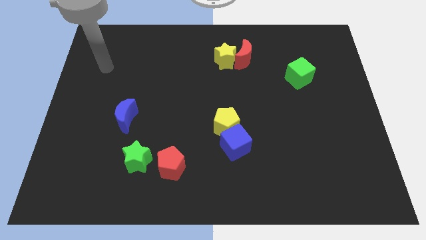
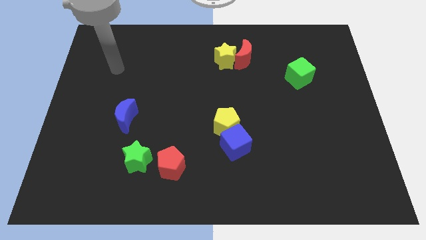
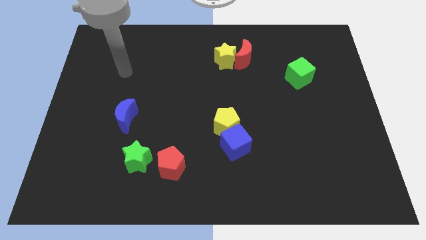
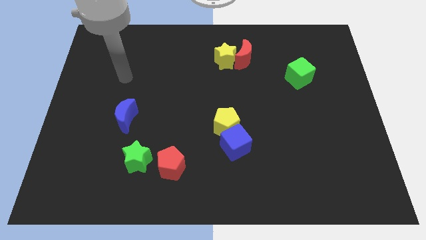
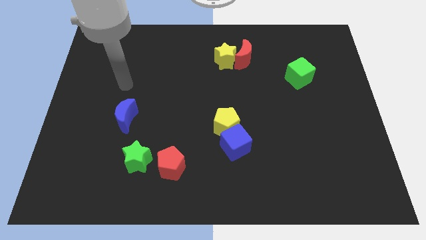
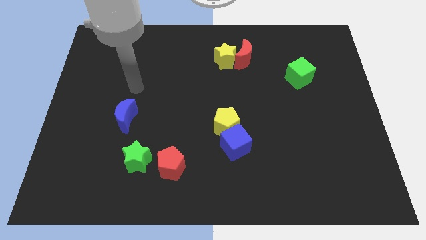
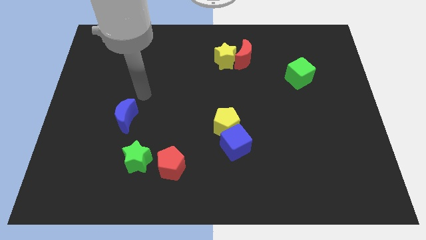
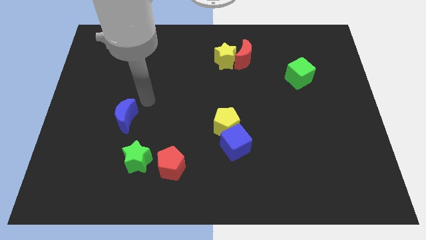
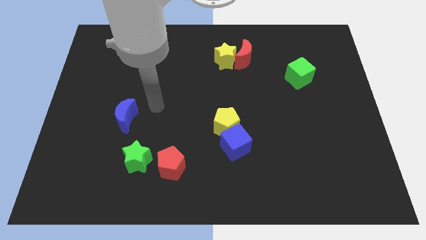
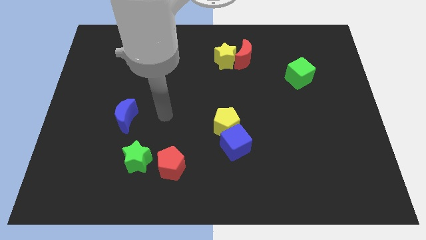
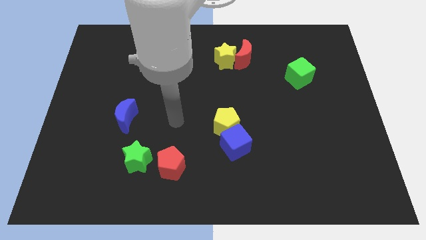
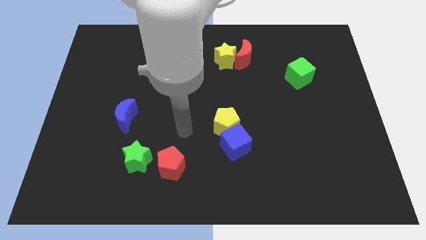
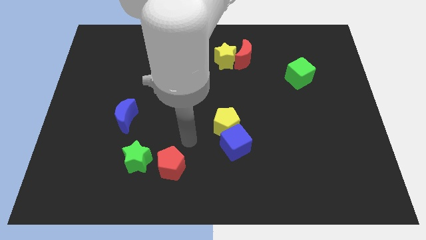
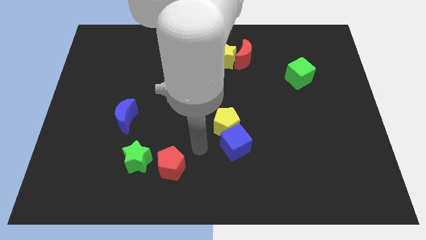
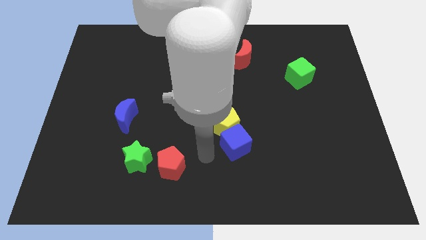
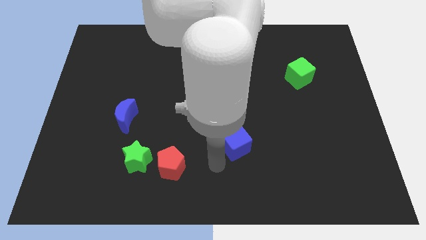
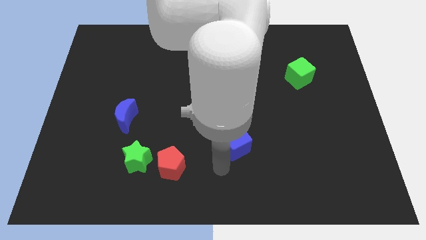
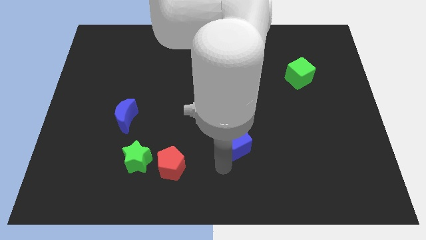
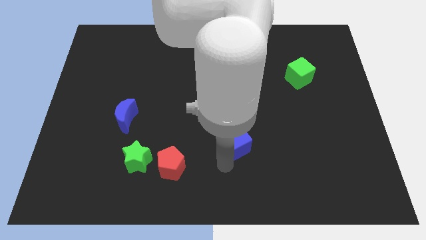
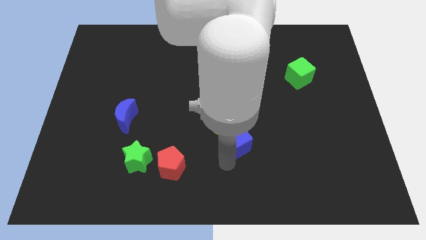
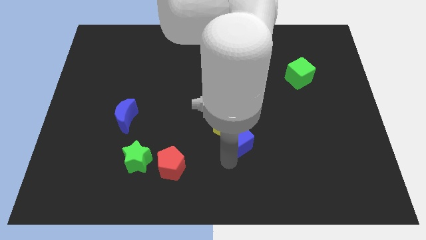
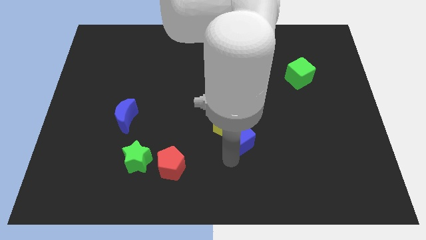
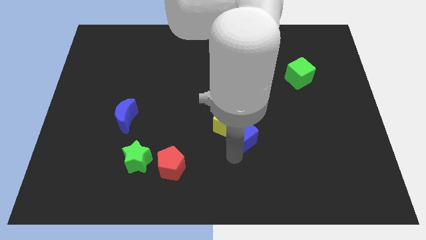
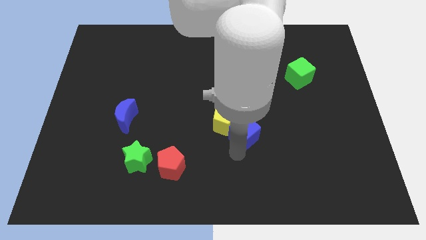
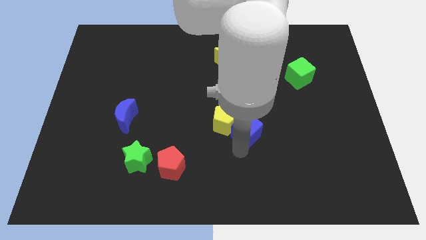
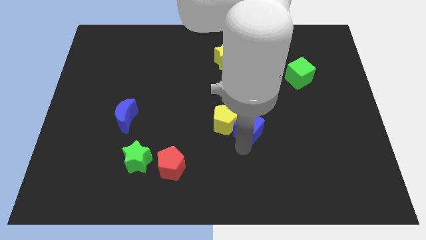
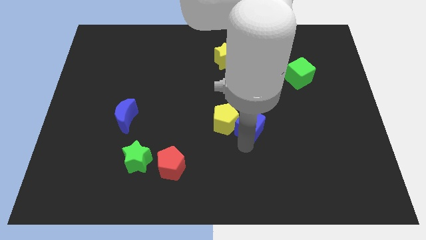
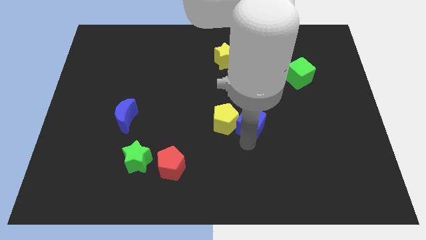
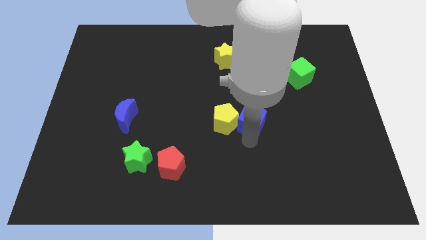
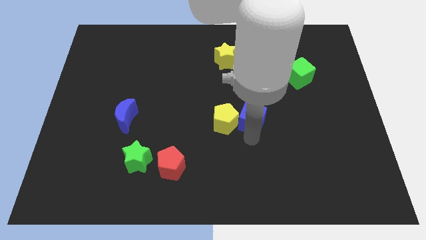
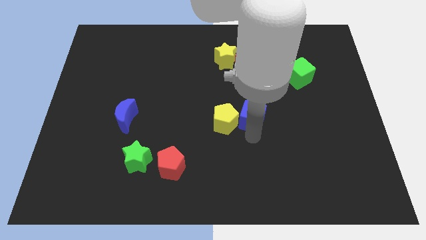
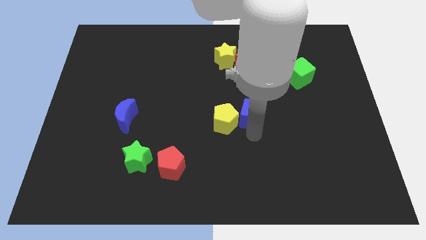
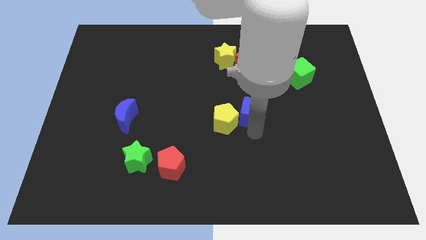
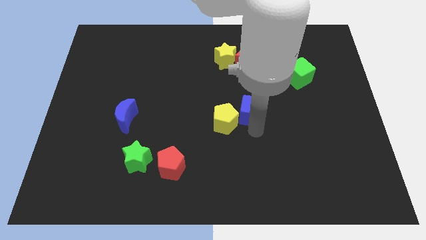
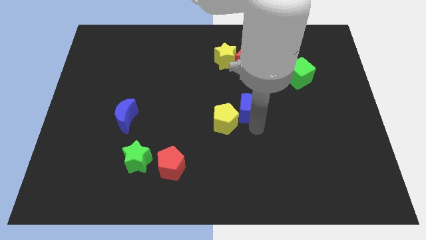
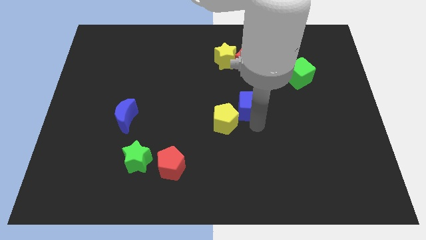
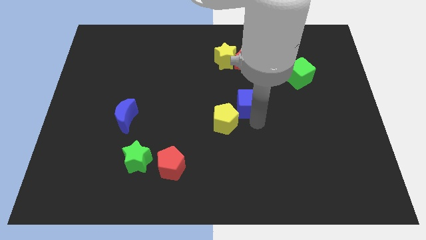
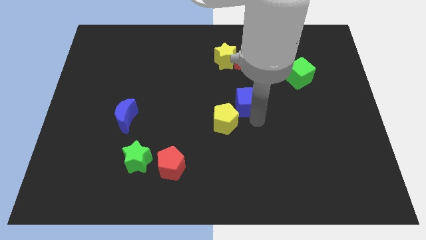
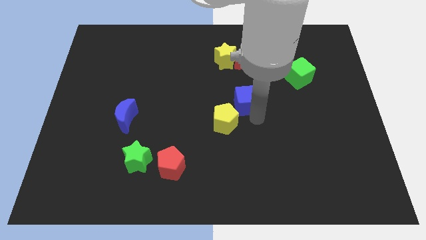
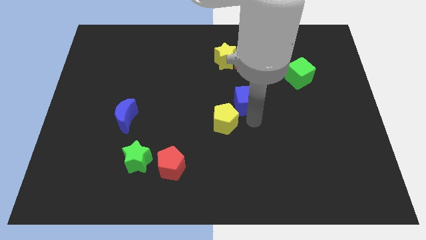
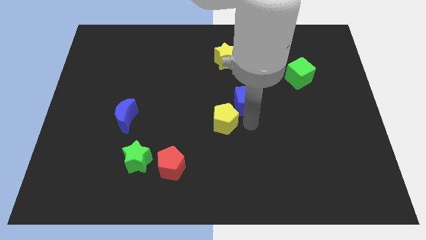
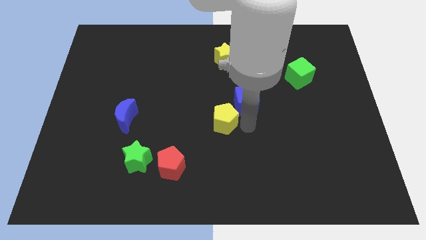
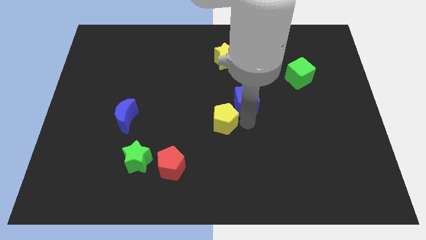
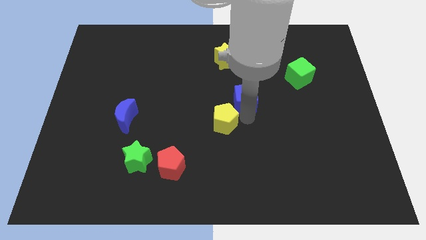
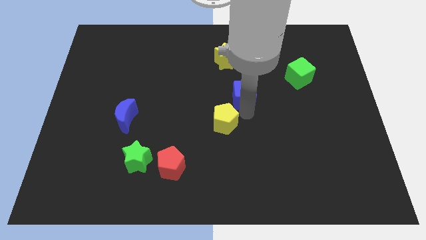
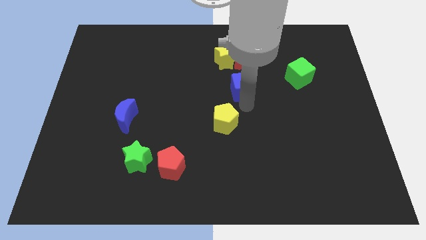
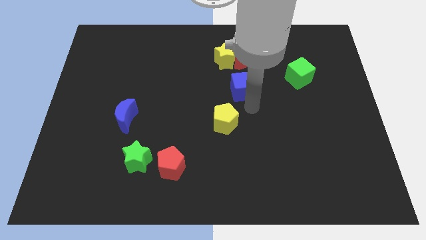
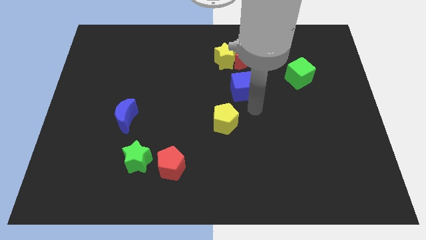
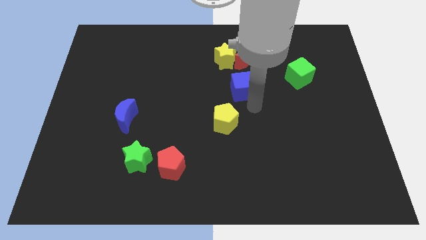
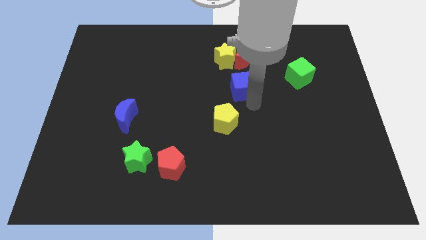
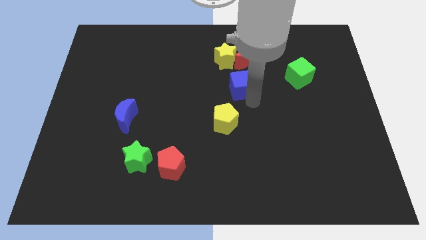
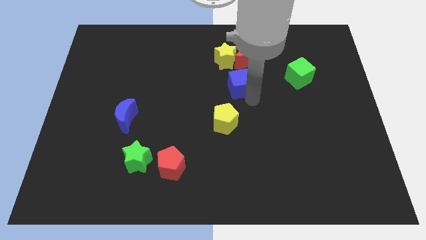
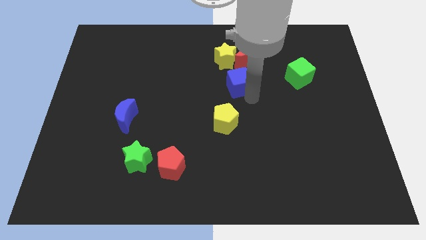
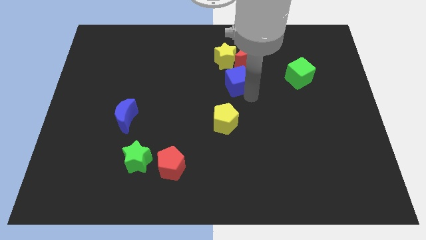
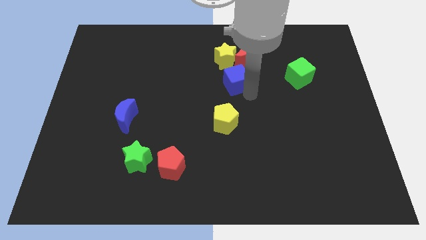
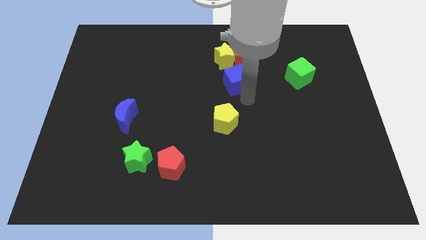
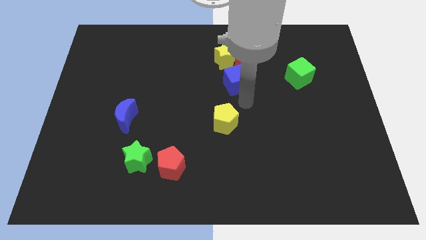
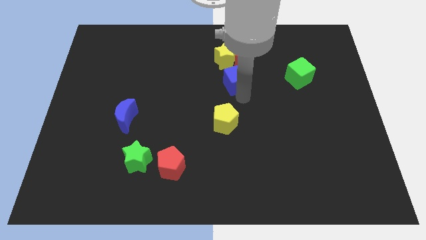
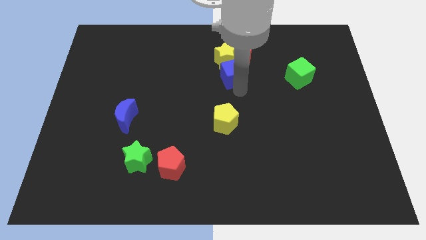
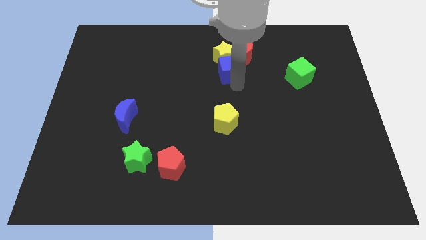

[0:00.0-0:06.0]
put the blue cube to the yellow star

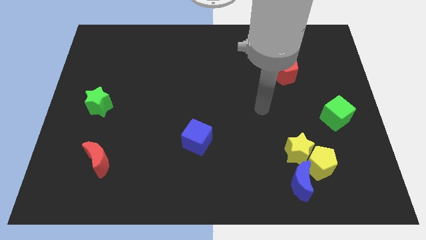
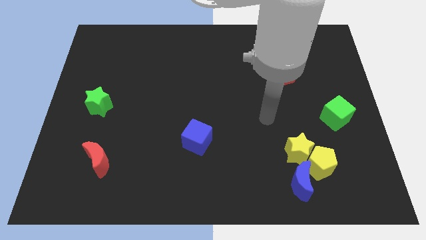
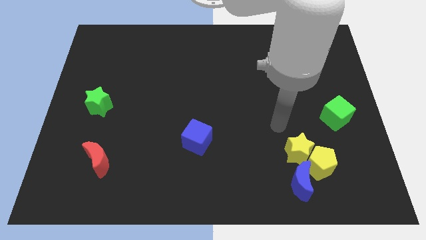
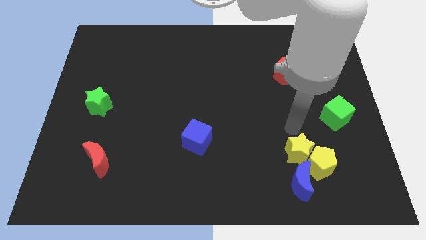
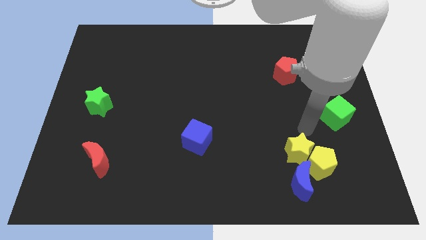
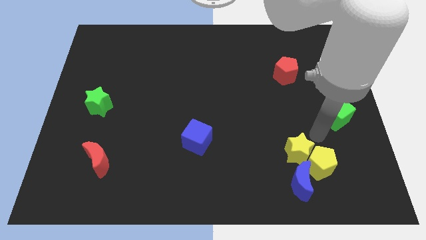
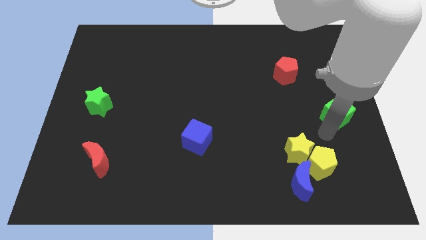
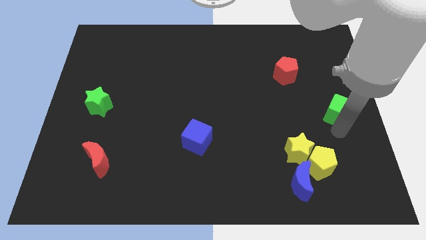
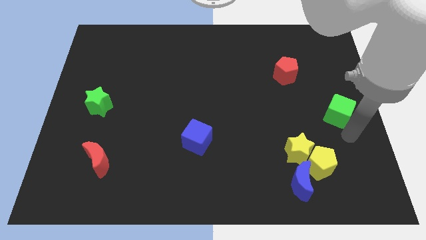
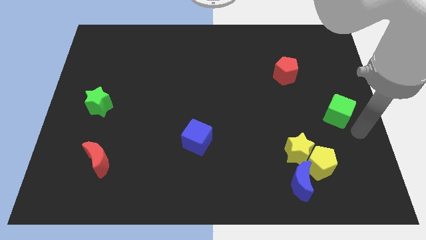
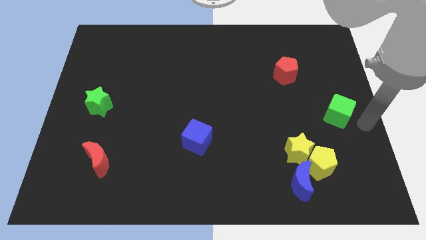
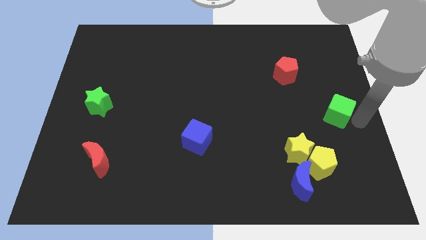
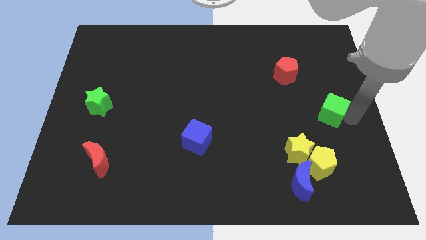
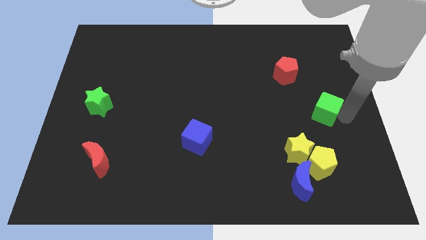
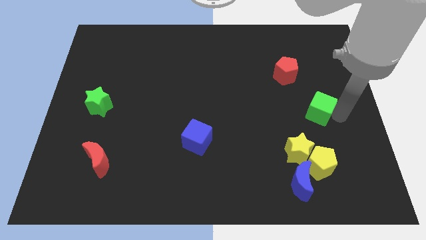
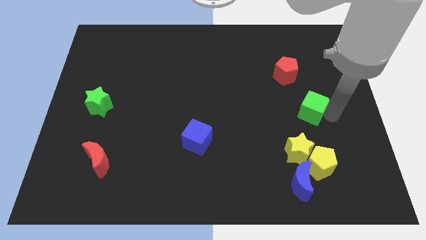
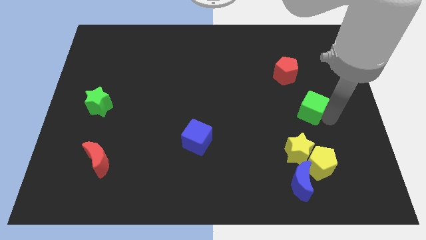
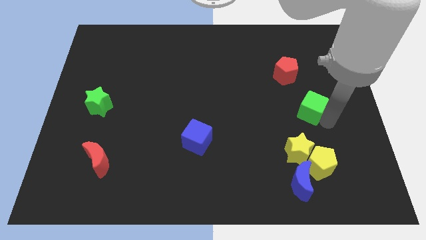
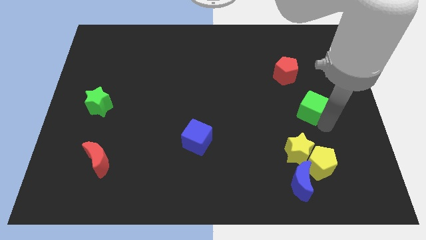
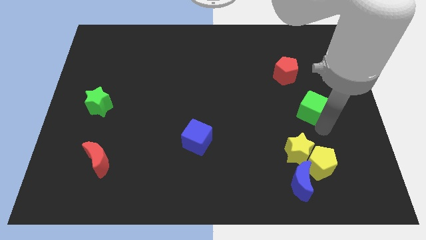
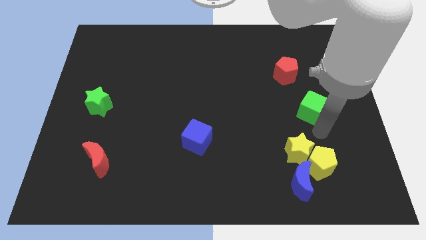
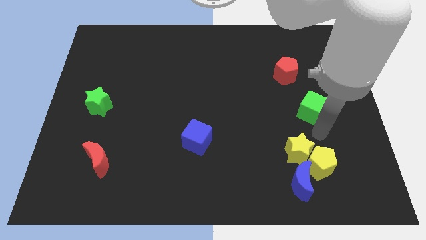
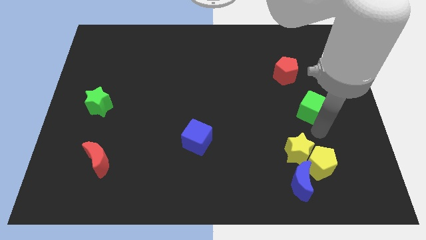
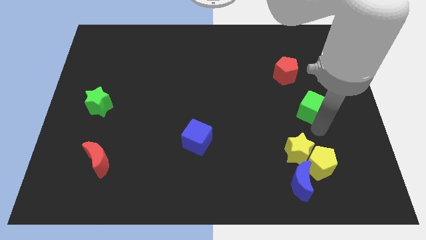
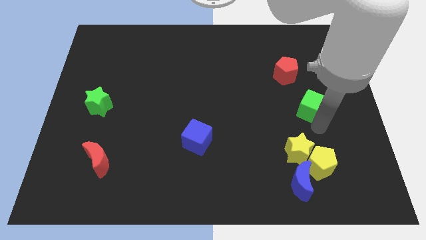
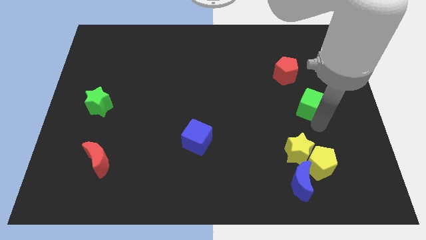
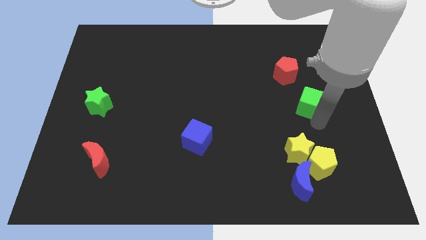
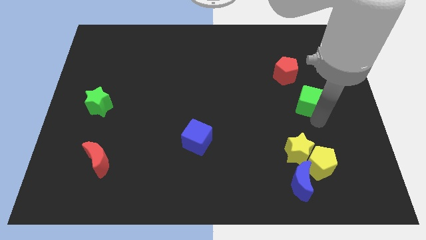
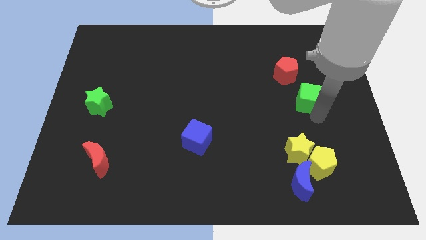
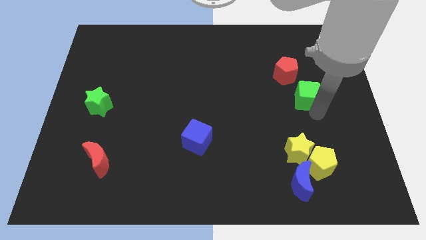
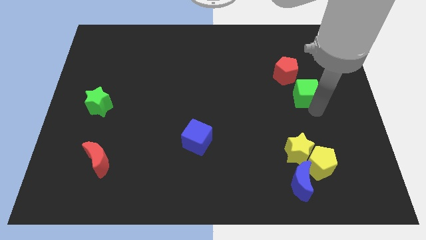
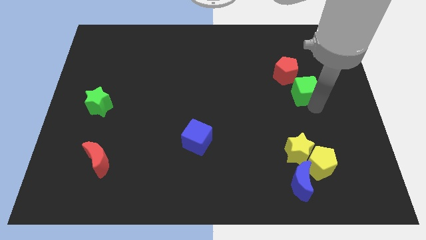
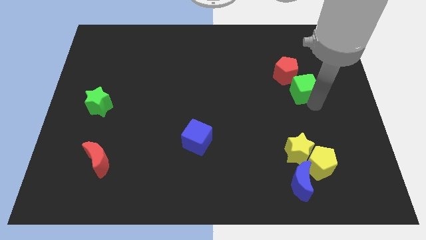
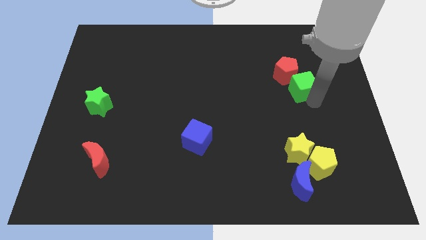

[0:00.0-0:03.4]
move the green cube towards the red pentagon
